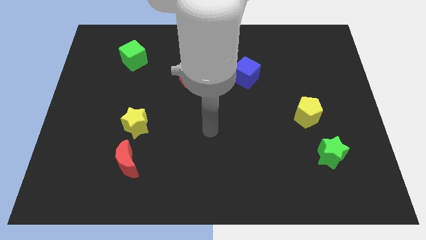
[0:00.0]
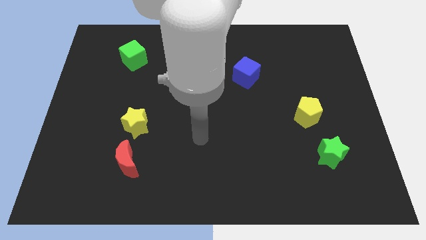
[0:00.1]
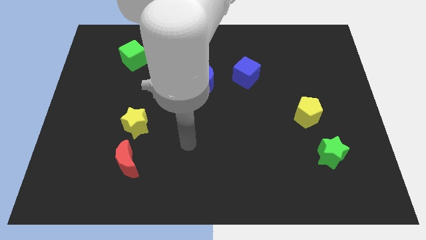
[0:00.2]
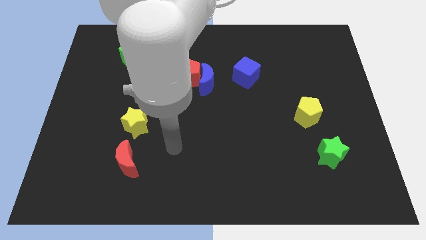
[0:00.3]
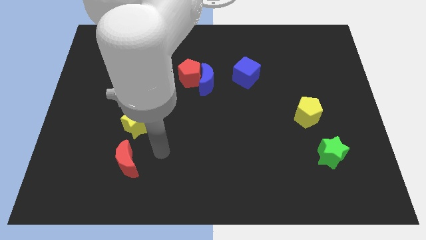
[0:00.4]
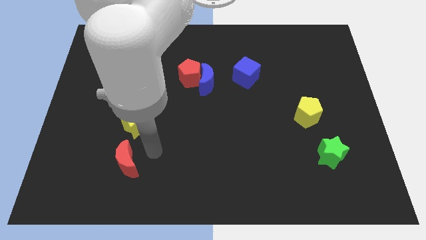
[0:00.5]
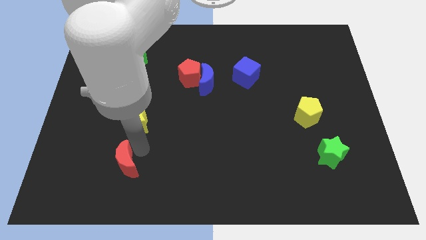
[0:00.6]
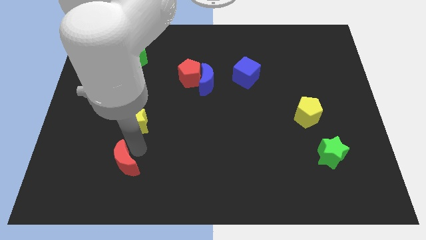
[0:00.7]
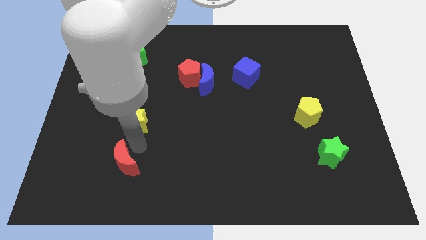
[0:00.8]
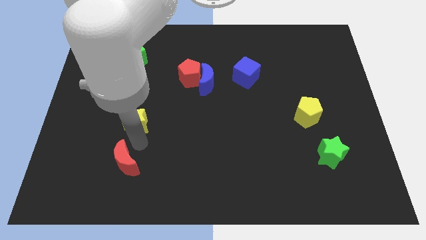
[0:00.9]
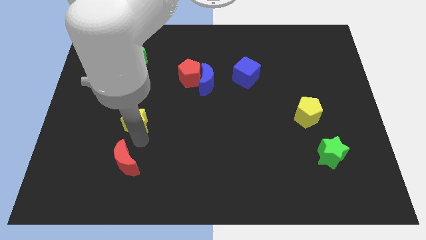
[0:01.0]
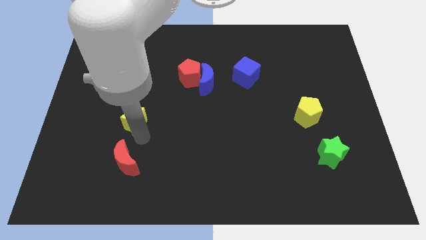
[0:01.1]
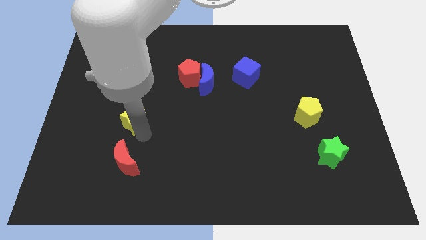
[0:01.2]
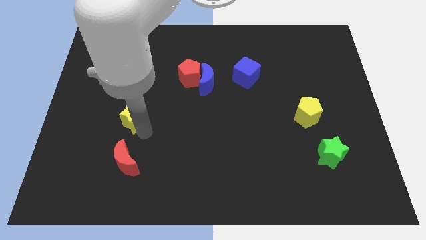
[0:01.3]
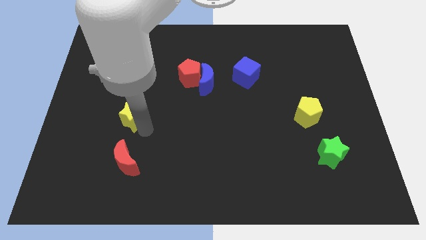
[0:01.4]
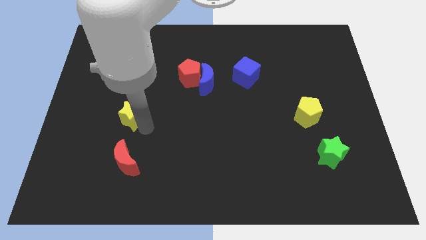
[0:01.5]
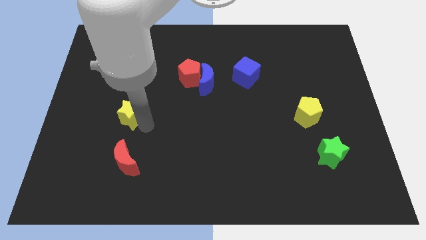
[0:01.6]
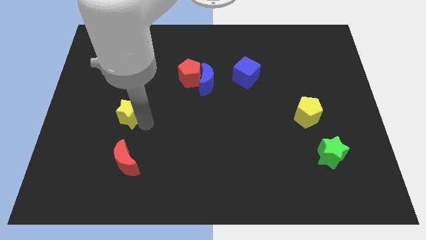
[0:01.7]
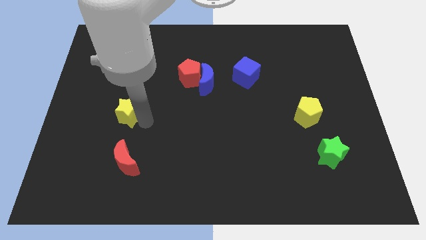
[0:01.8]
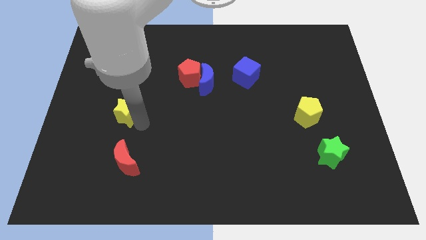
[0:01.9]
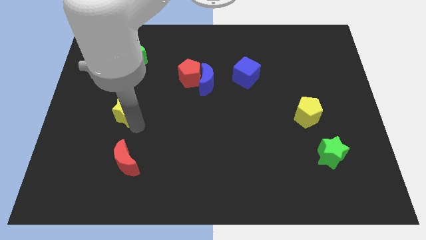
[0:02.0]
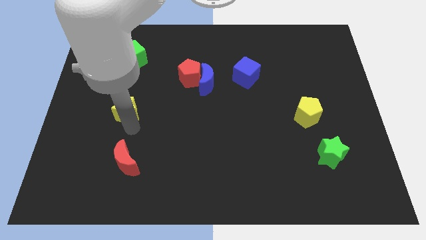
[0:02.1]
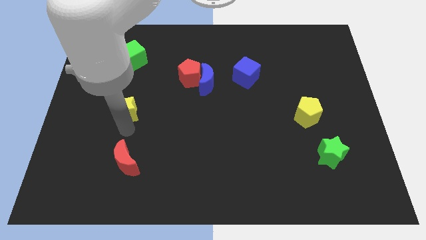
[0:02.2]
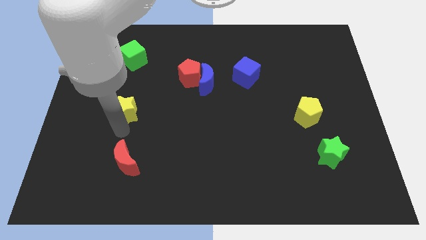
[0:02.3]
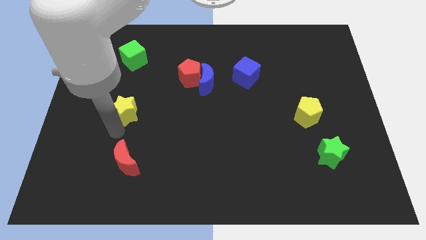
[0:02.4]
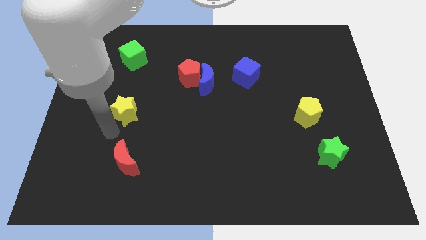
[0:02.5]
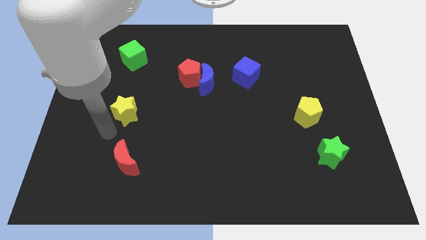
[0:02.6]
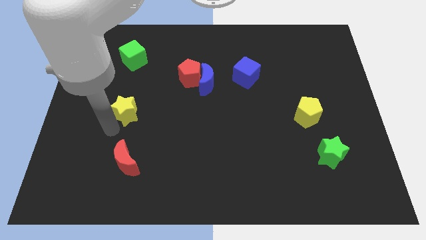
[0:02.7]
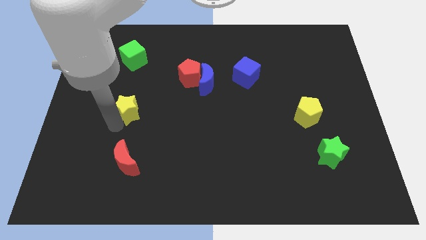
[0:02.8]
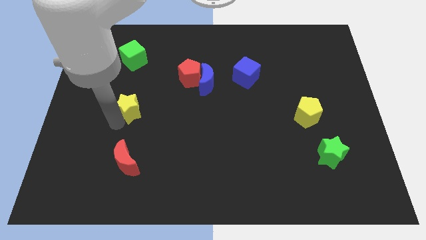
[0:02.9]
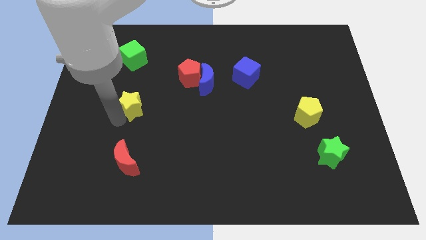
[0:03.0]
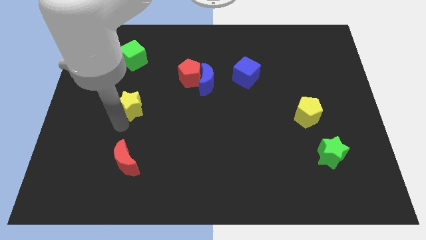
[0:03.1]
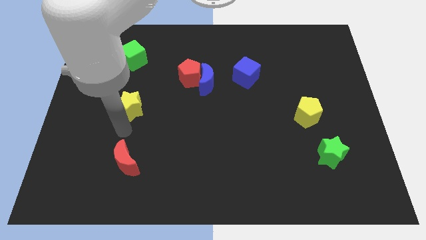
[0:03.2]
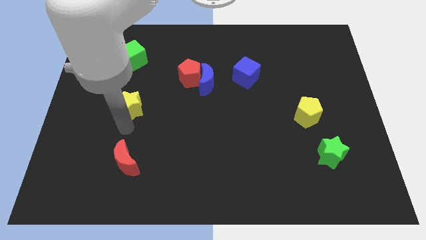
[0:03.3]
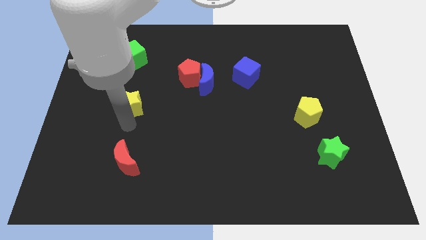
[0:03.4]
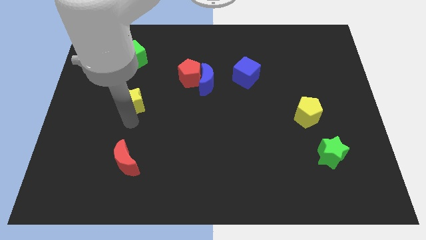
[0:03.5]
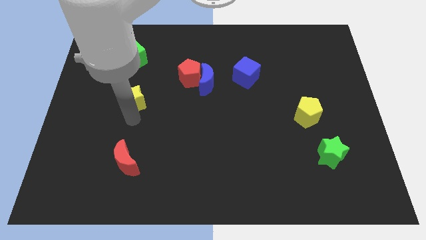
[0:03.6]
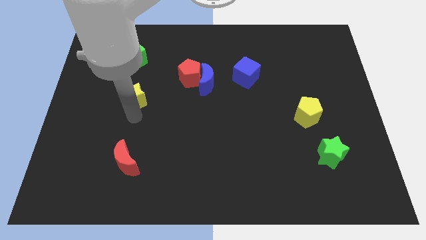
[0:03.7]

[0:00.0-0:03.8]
slightly push the yellow star up

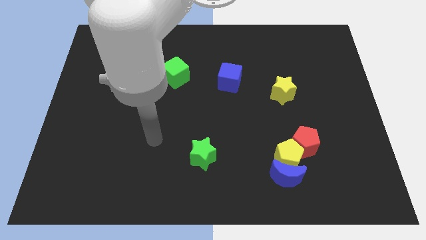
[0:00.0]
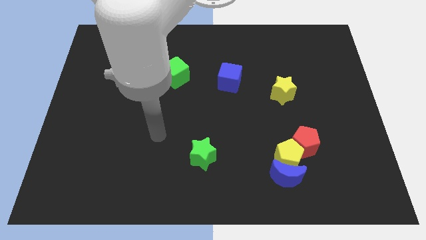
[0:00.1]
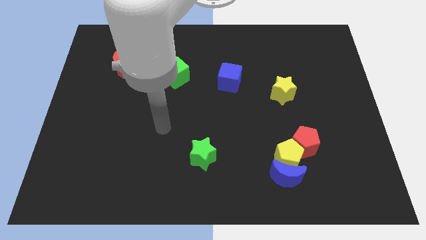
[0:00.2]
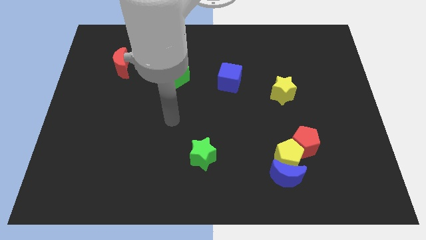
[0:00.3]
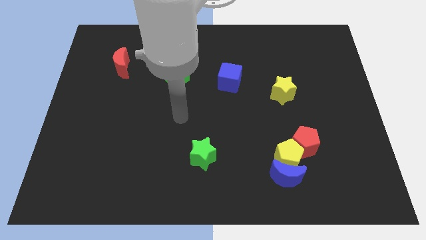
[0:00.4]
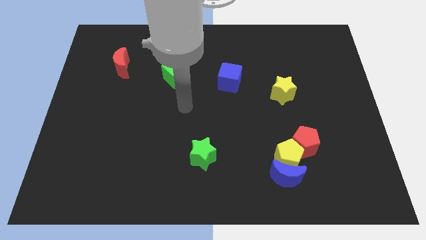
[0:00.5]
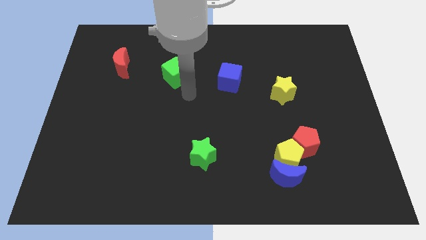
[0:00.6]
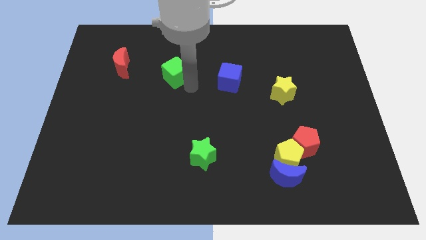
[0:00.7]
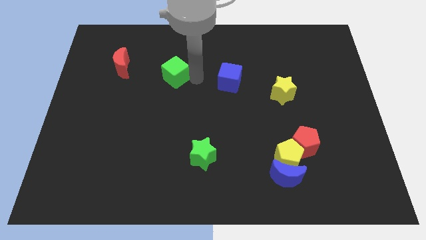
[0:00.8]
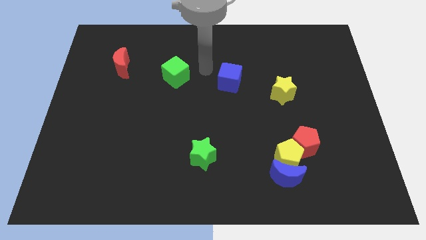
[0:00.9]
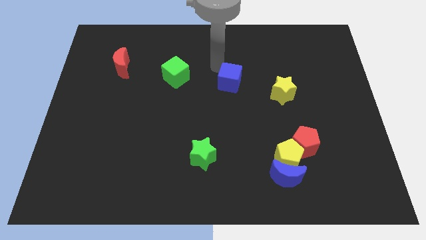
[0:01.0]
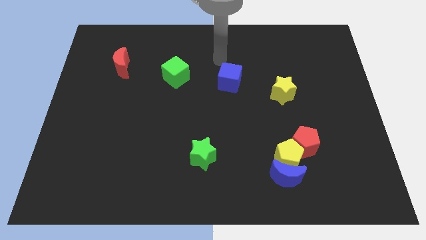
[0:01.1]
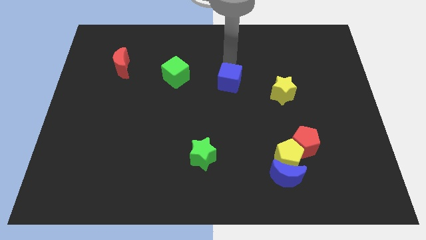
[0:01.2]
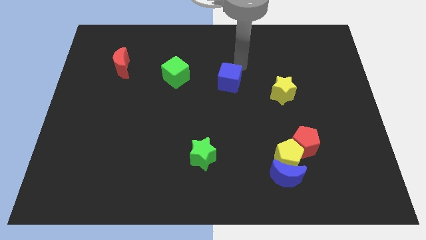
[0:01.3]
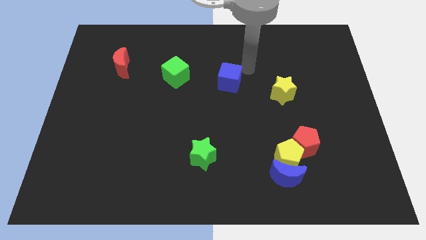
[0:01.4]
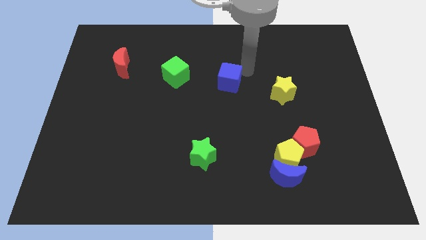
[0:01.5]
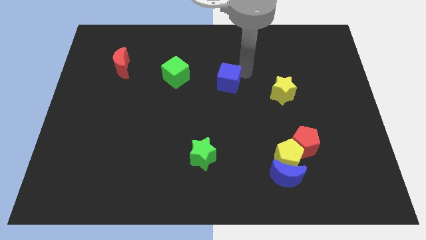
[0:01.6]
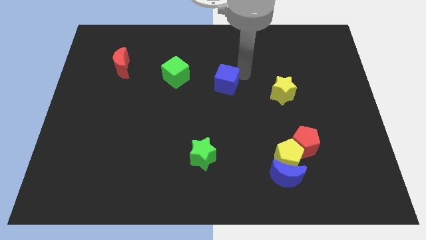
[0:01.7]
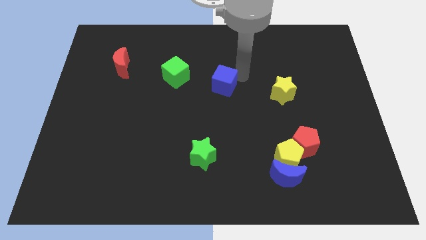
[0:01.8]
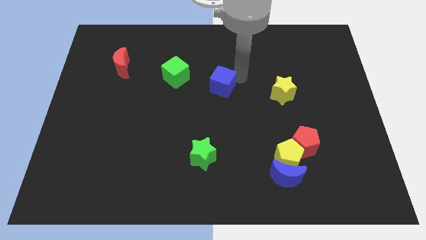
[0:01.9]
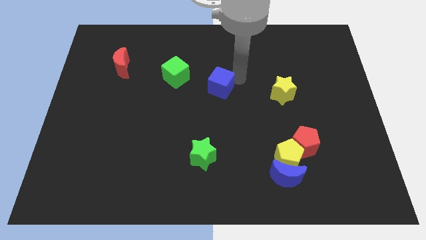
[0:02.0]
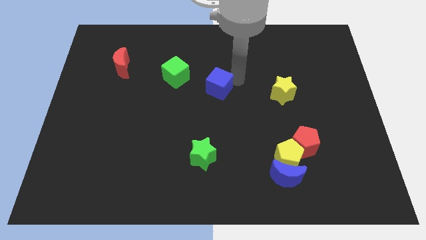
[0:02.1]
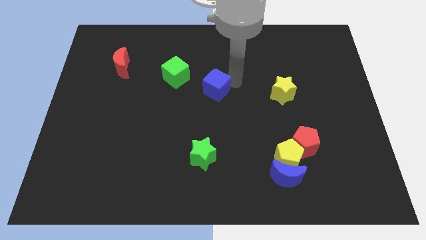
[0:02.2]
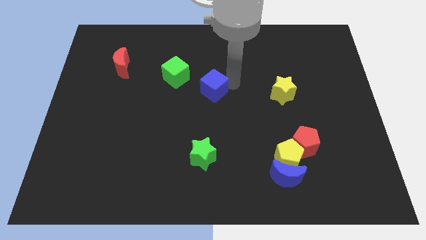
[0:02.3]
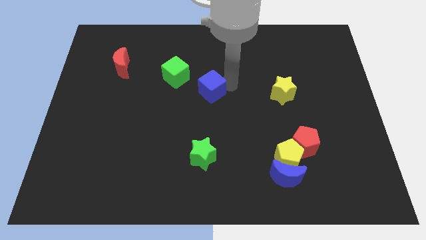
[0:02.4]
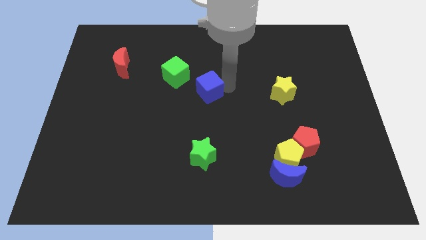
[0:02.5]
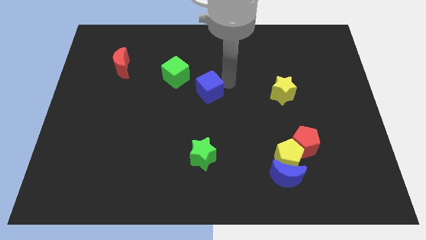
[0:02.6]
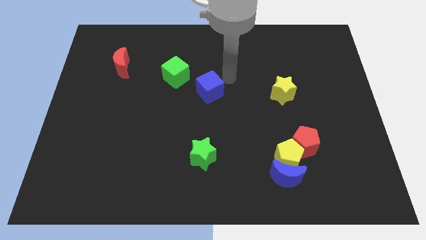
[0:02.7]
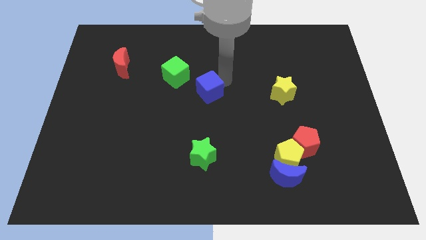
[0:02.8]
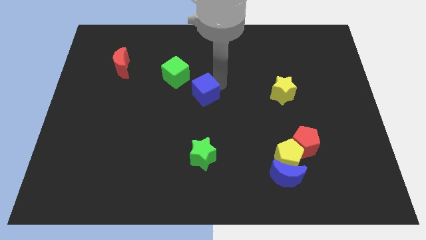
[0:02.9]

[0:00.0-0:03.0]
slightly slide the blue cube down and to the left diagonally

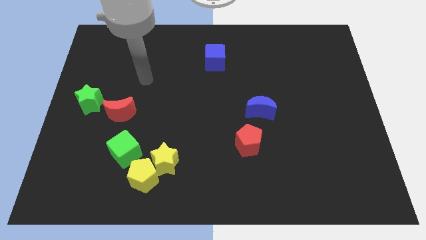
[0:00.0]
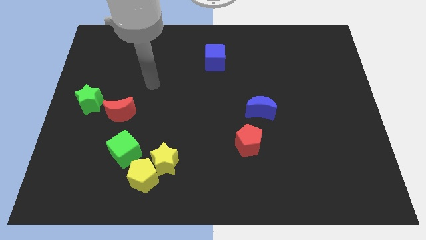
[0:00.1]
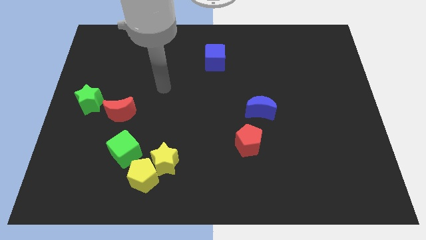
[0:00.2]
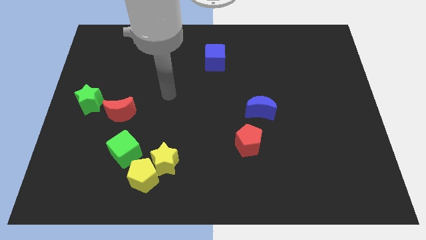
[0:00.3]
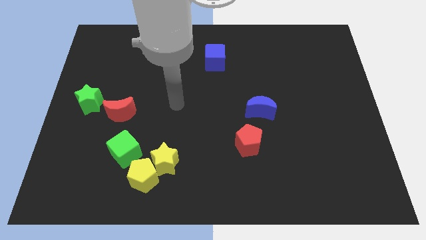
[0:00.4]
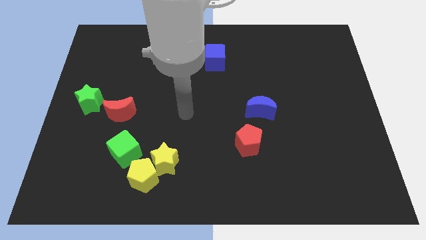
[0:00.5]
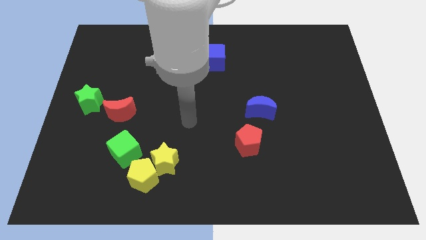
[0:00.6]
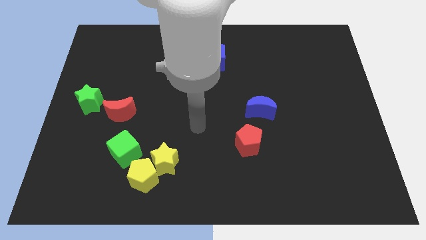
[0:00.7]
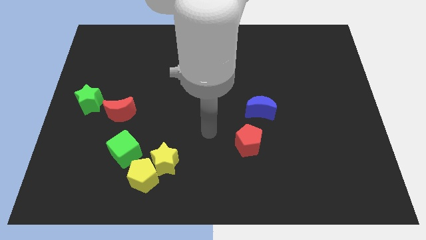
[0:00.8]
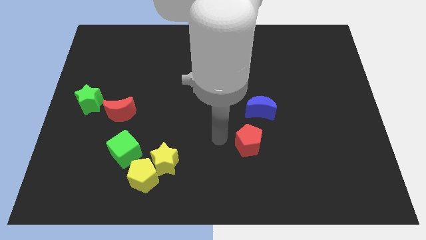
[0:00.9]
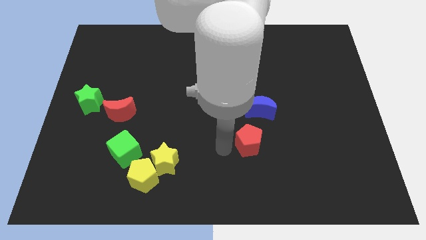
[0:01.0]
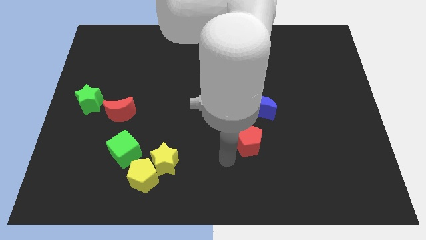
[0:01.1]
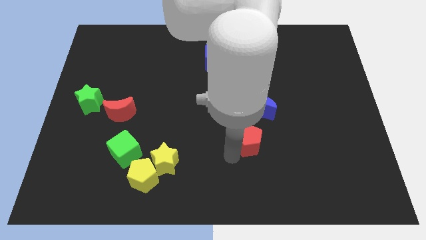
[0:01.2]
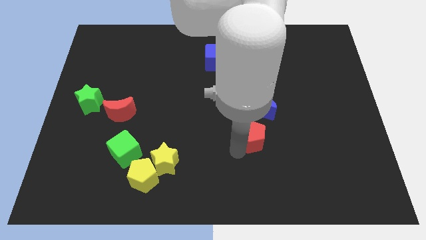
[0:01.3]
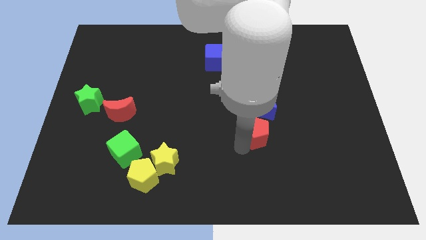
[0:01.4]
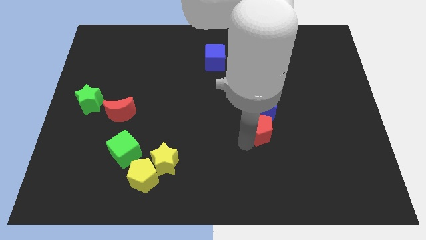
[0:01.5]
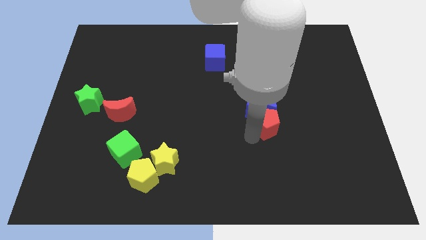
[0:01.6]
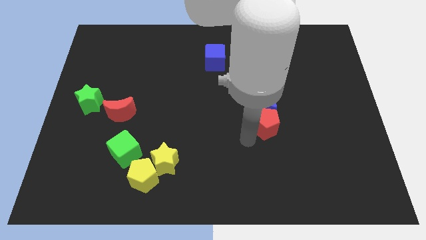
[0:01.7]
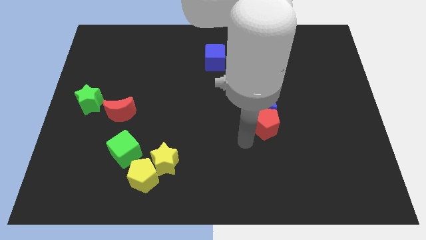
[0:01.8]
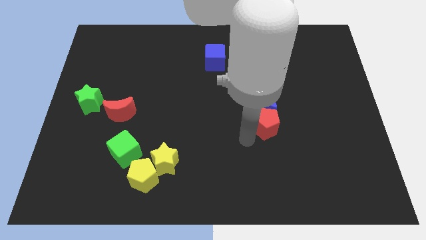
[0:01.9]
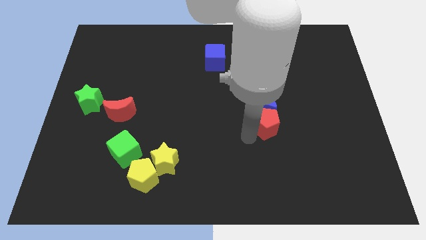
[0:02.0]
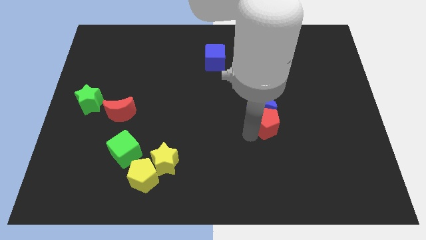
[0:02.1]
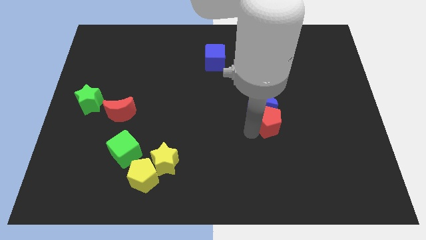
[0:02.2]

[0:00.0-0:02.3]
push the red pentagon up and to the right a bit
